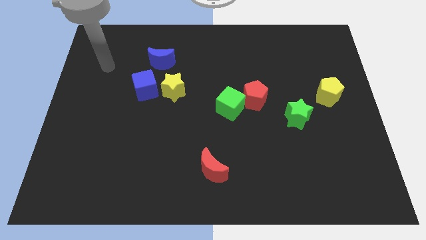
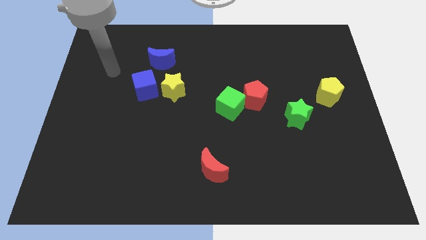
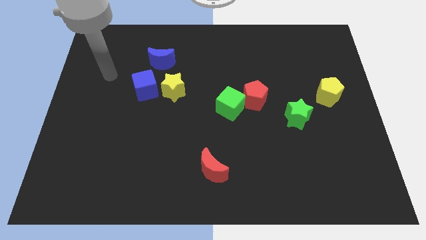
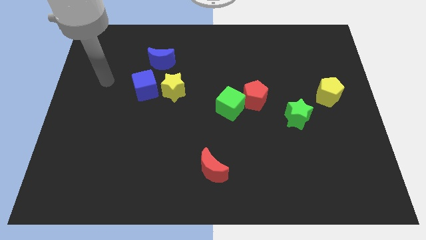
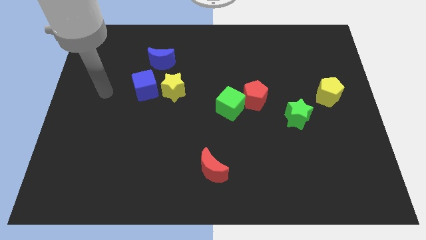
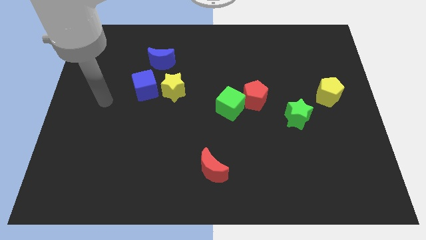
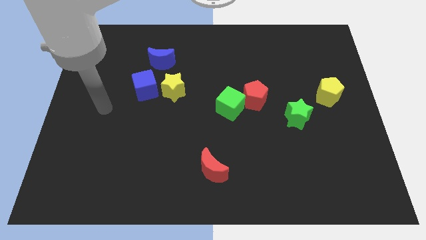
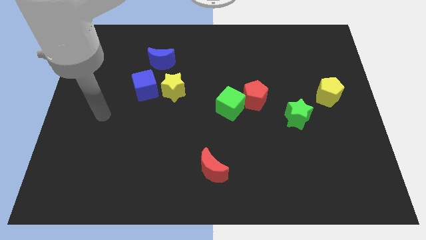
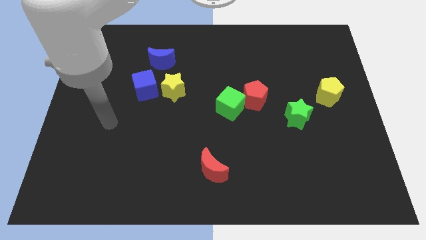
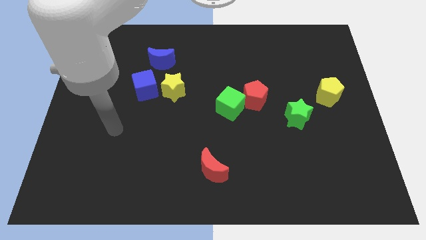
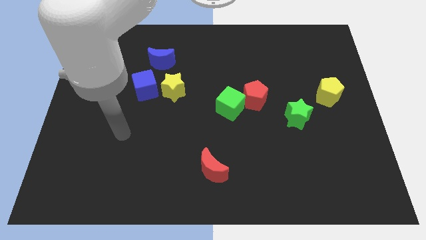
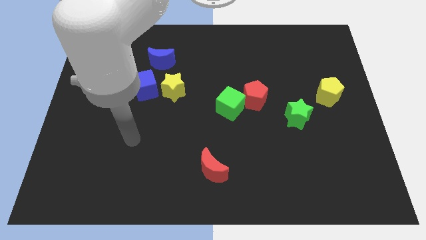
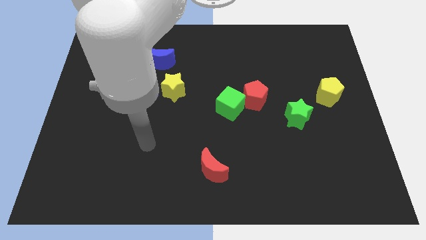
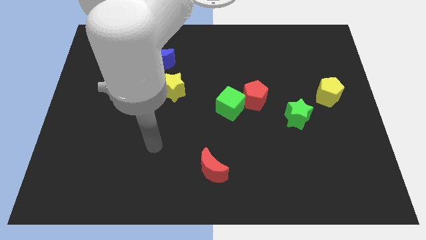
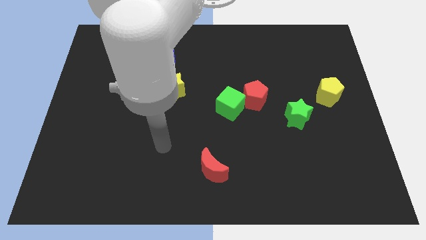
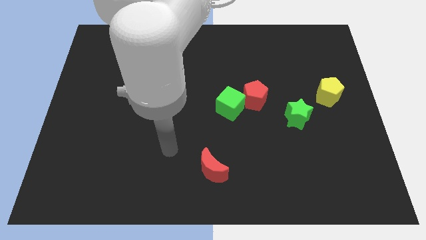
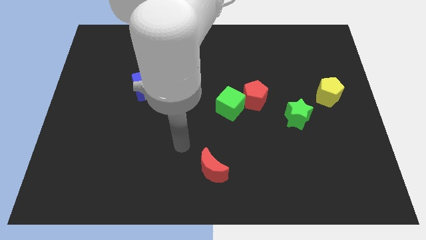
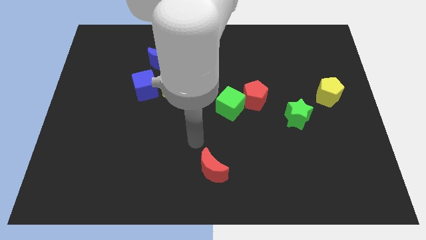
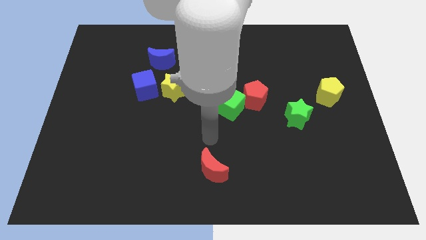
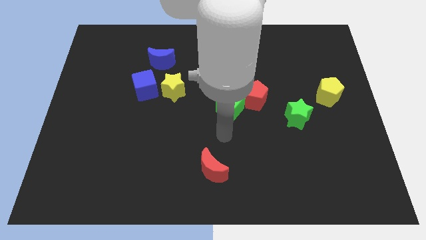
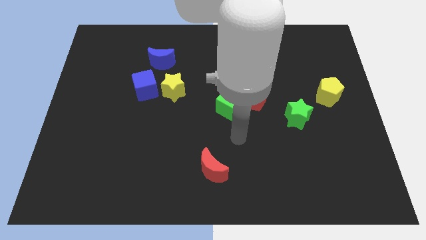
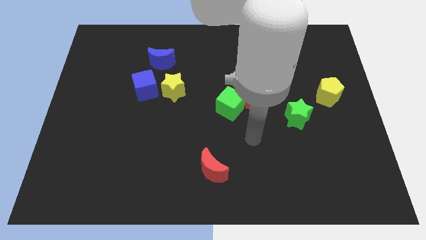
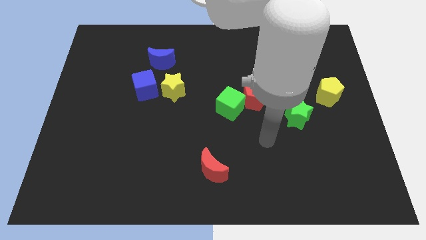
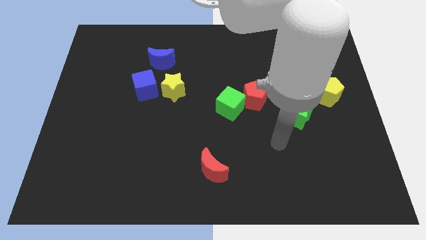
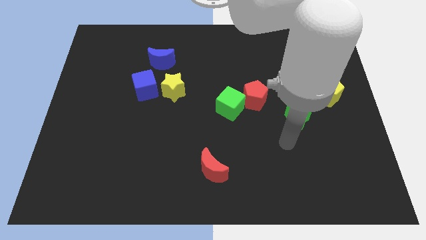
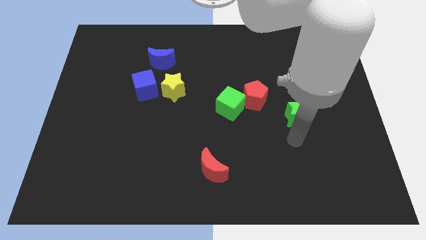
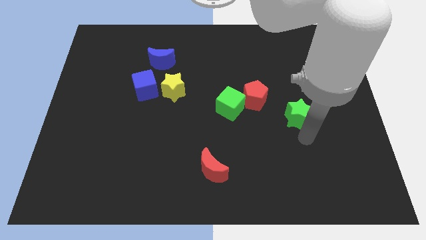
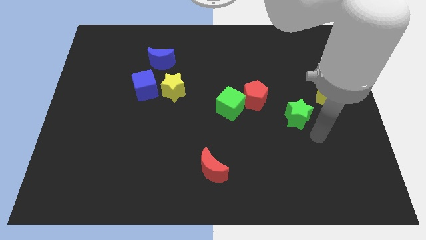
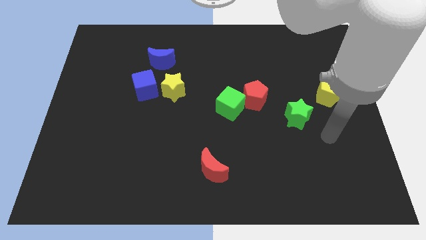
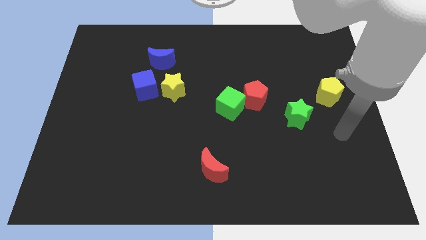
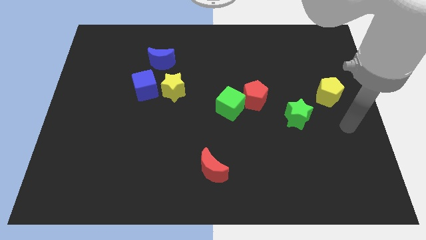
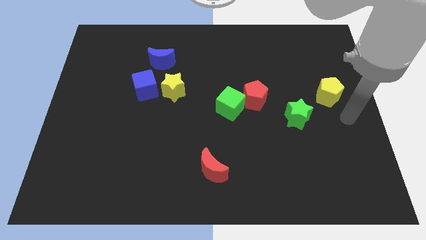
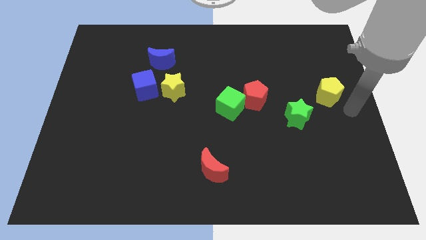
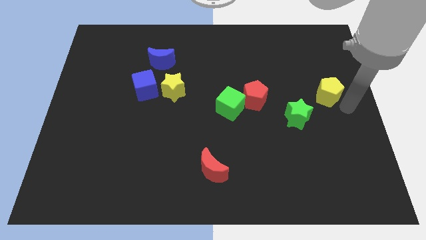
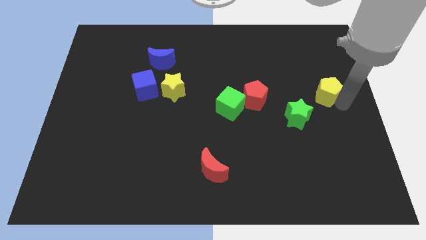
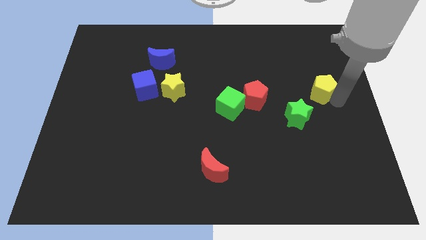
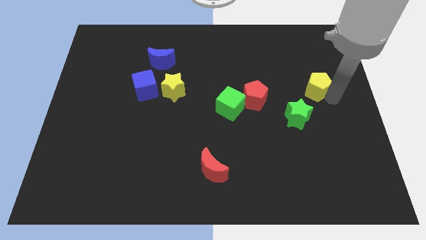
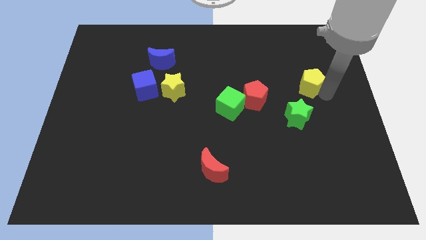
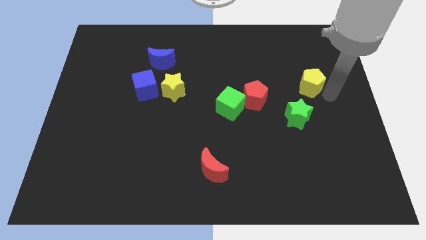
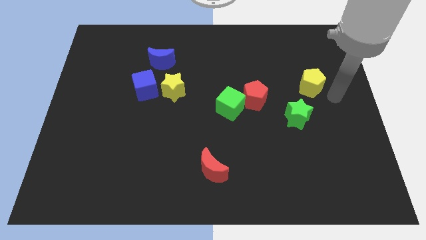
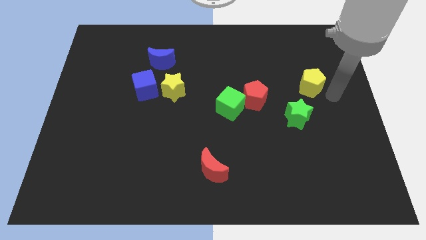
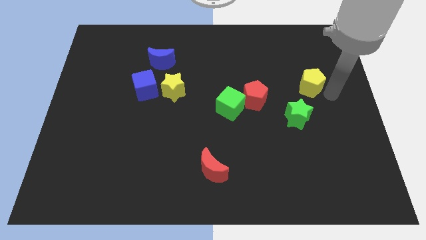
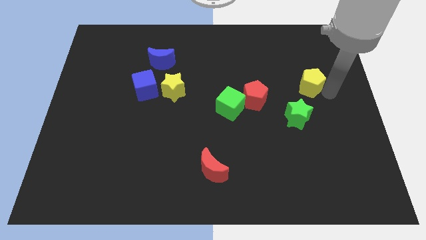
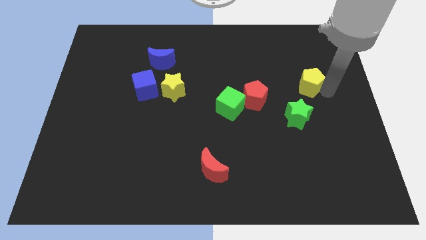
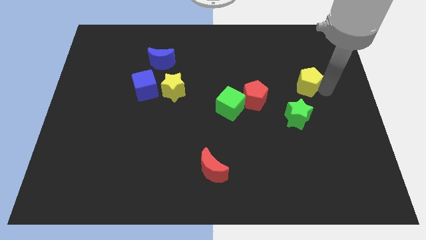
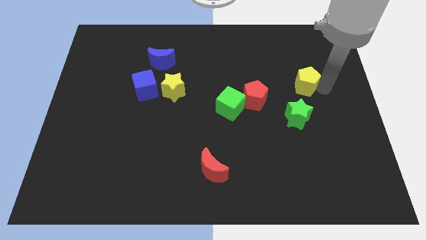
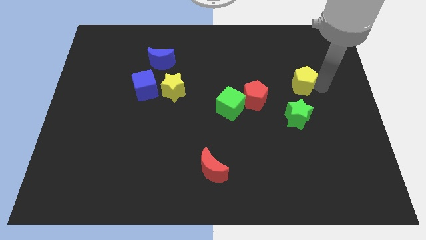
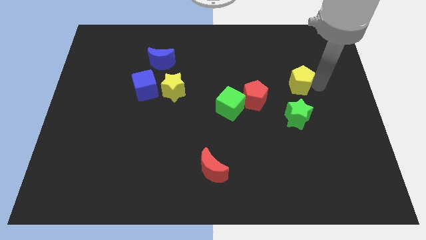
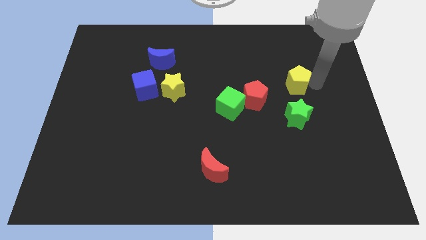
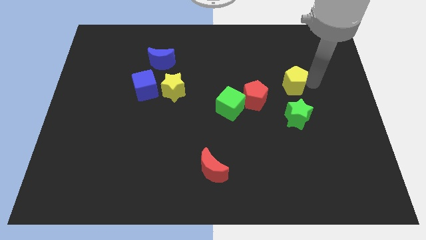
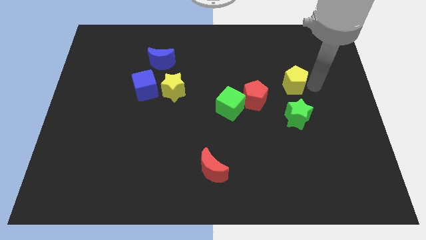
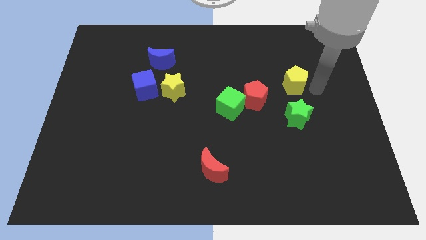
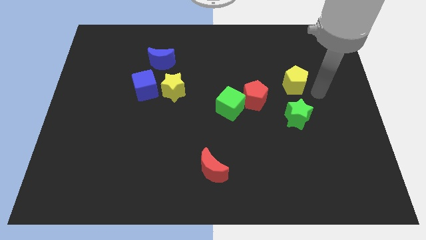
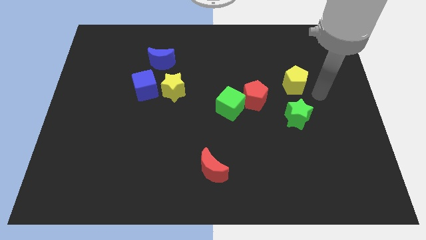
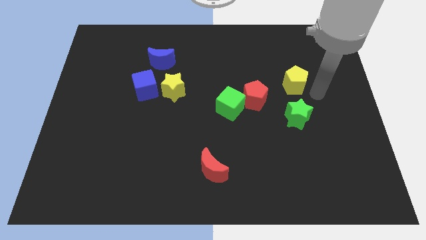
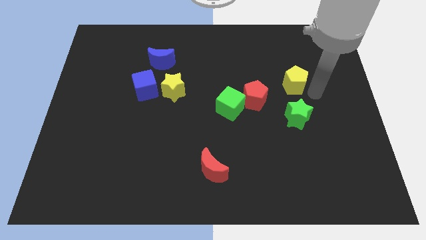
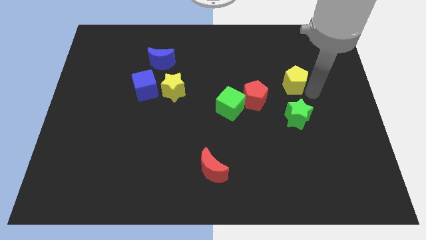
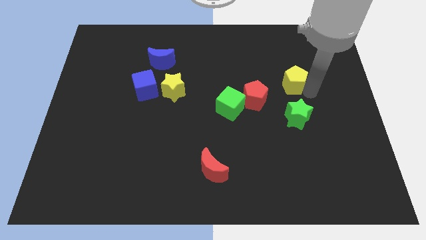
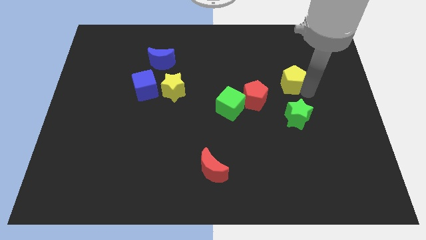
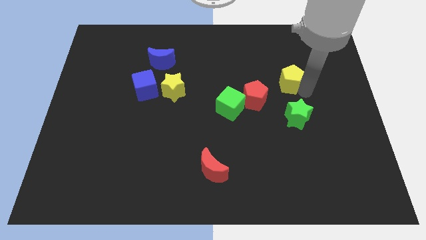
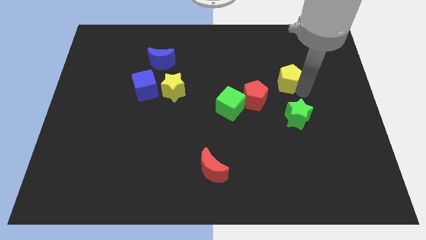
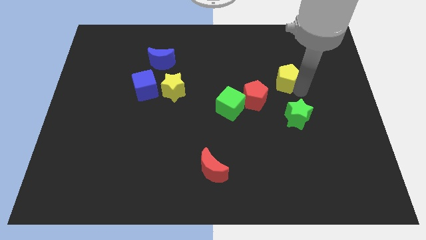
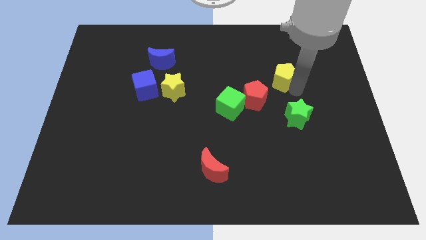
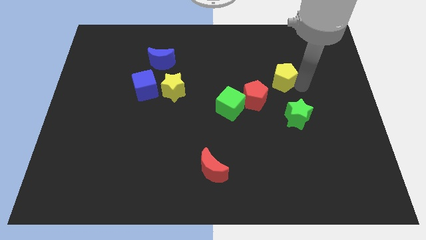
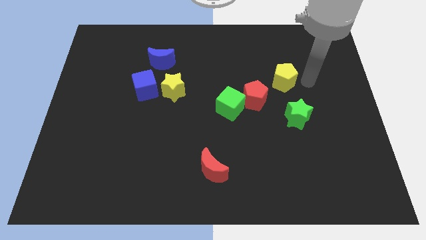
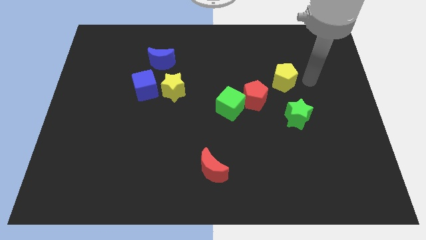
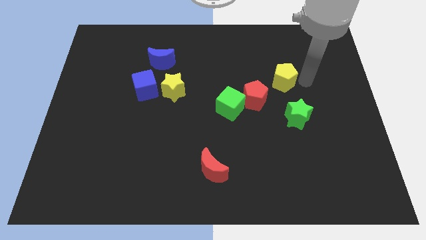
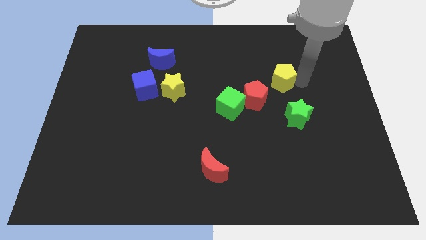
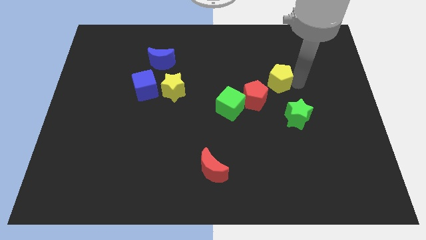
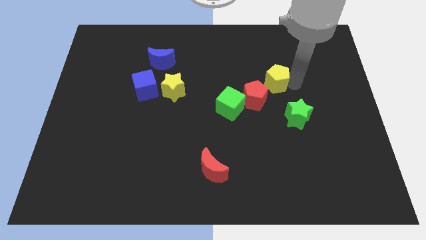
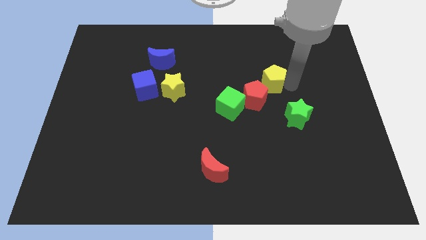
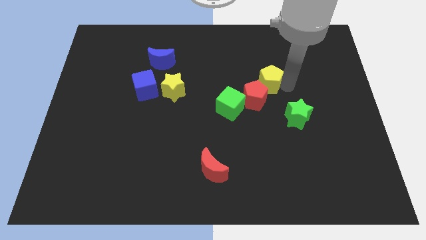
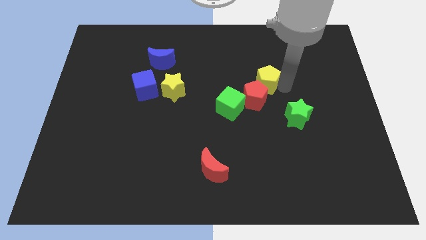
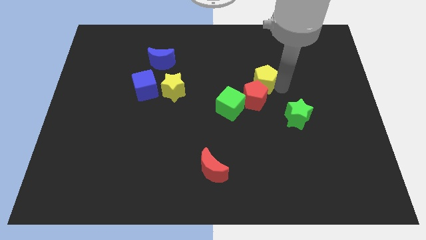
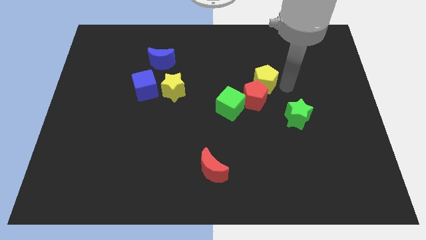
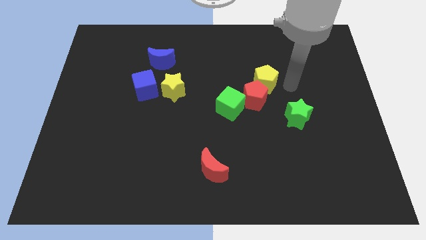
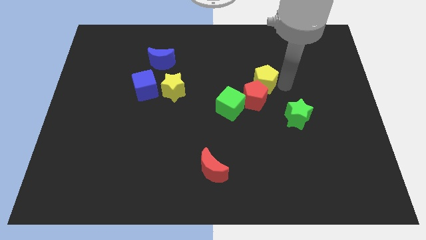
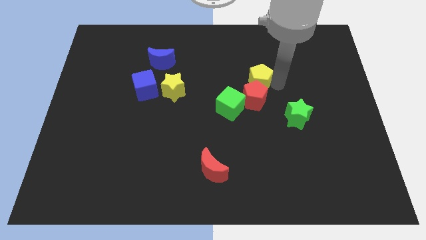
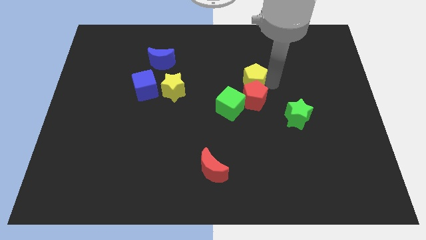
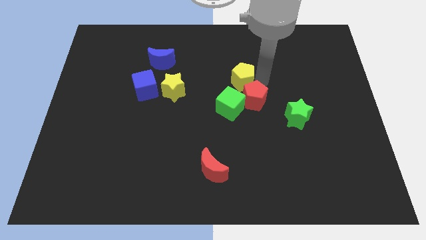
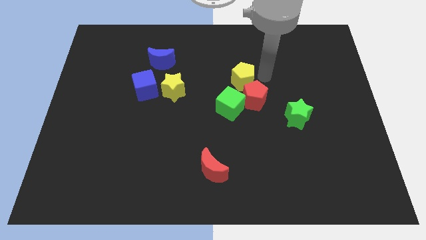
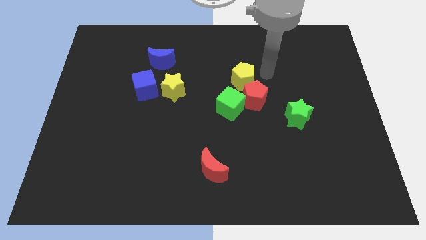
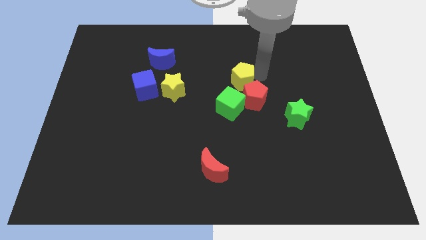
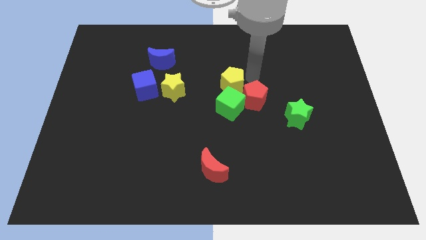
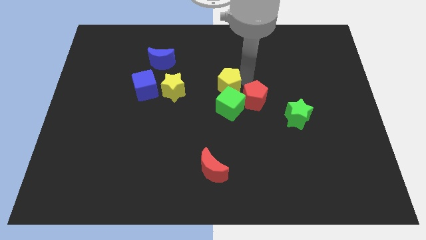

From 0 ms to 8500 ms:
move the yellow pentagon to the top left side of the green cube
